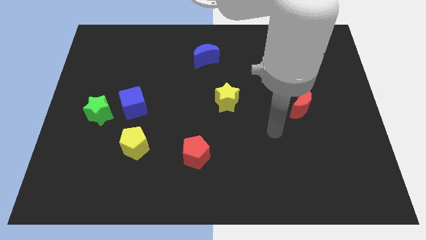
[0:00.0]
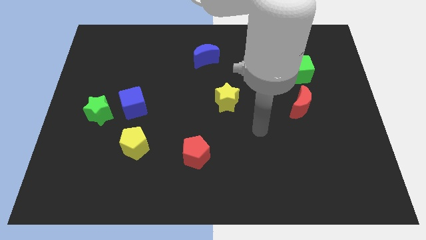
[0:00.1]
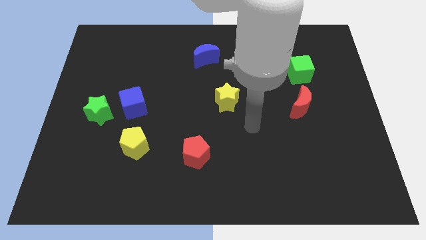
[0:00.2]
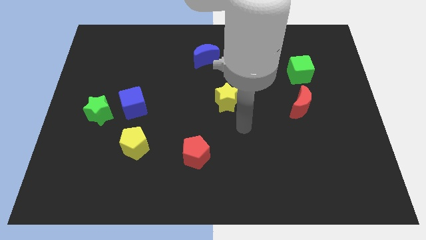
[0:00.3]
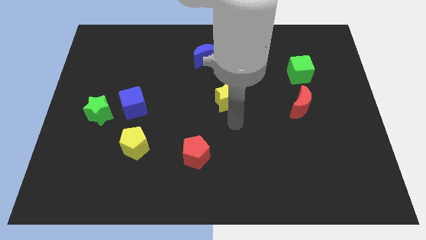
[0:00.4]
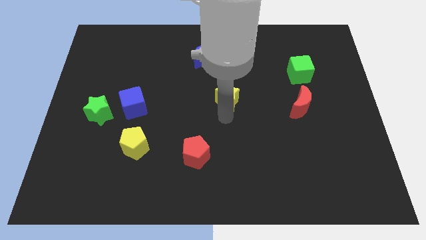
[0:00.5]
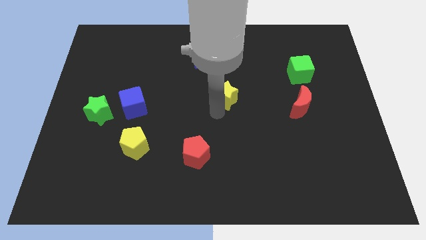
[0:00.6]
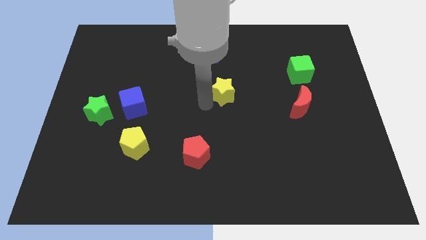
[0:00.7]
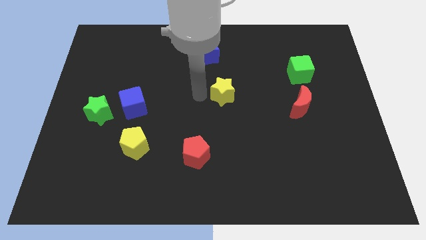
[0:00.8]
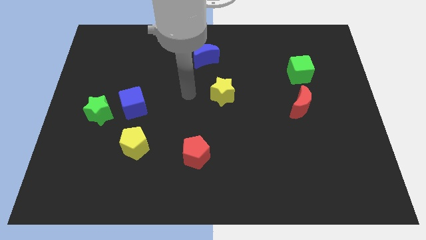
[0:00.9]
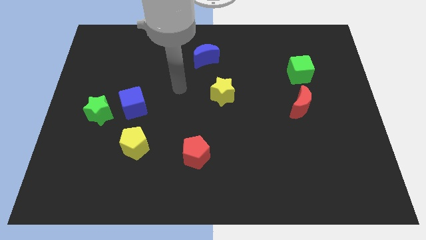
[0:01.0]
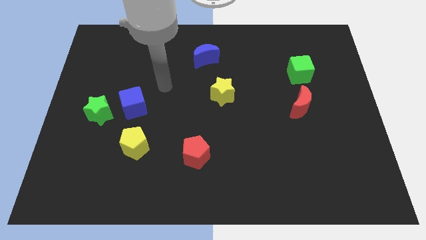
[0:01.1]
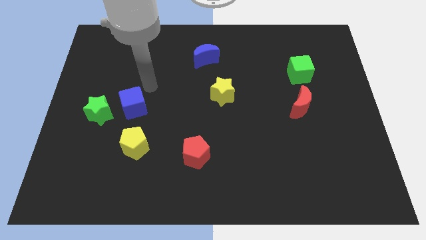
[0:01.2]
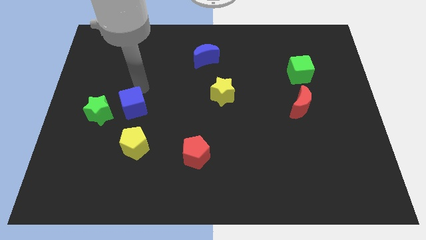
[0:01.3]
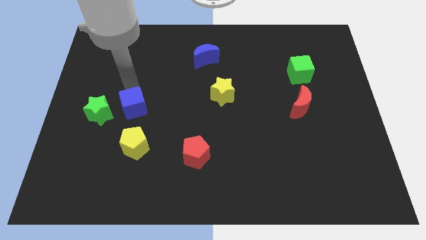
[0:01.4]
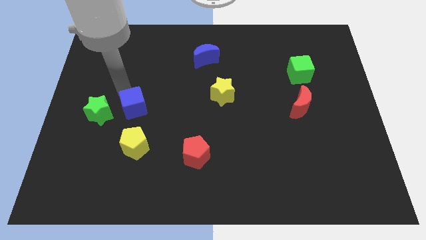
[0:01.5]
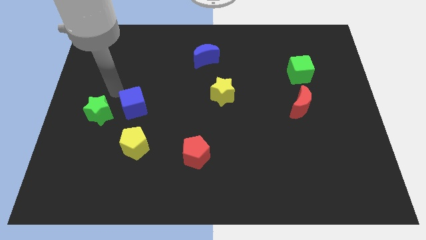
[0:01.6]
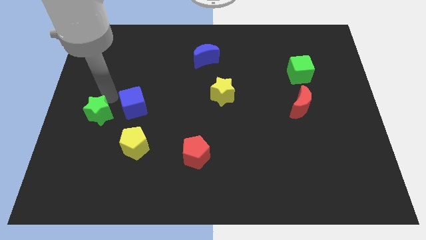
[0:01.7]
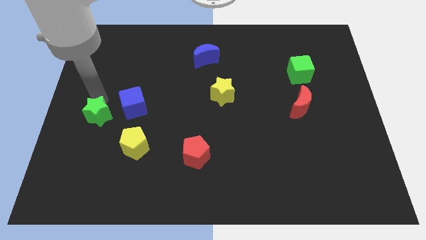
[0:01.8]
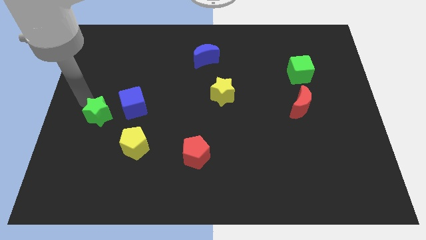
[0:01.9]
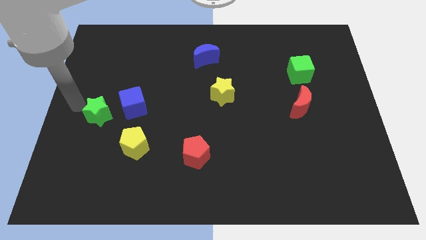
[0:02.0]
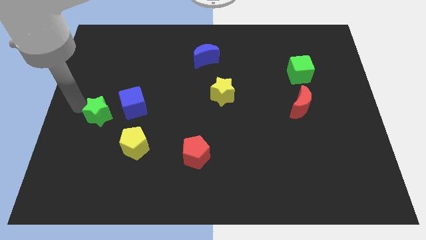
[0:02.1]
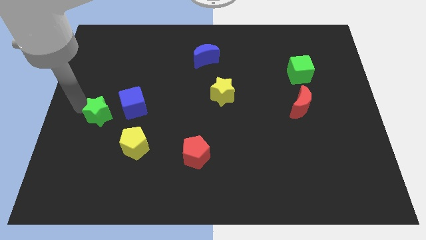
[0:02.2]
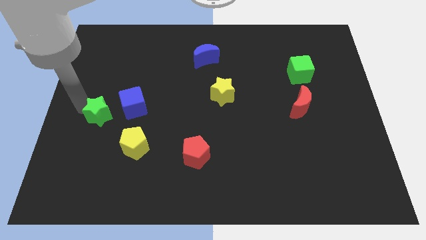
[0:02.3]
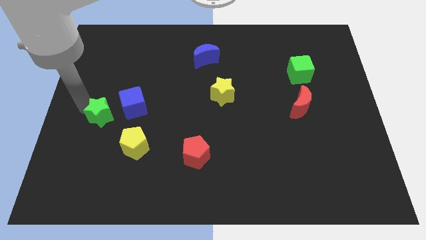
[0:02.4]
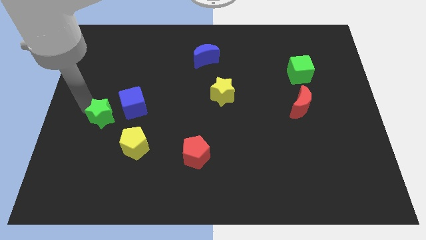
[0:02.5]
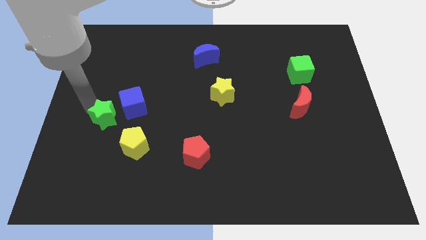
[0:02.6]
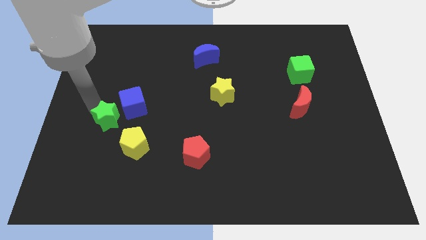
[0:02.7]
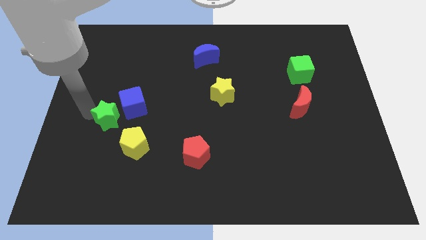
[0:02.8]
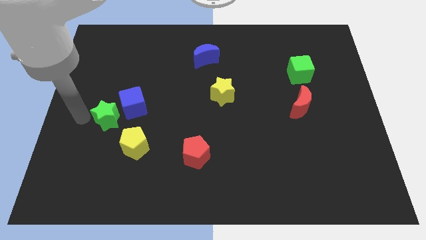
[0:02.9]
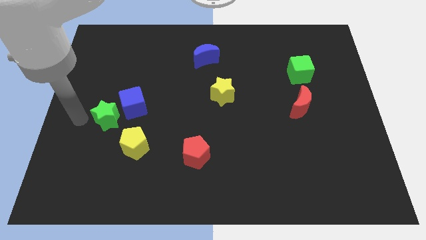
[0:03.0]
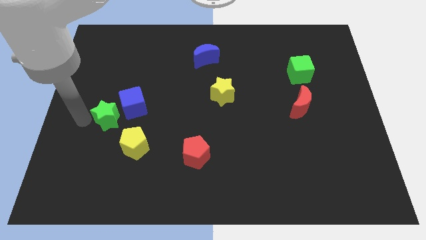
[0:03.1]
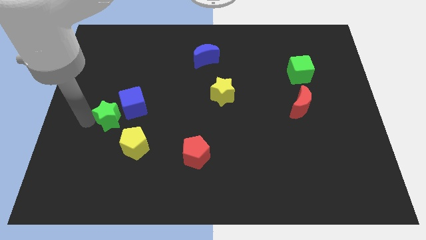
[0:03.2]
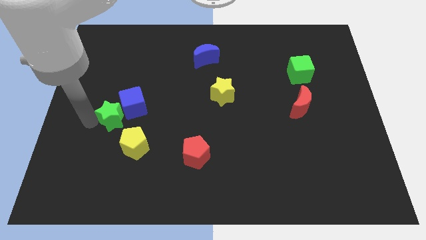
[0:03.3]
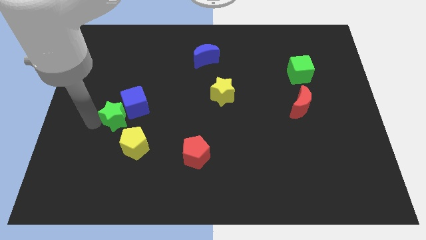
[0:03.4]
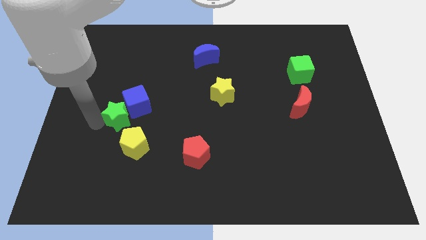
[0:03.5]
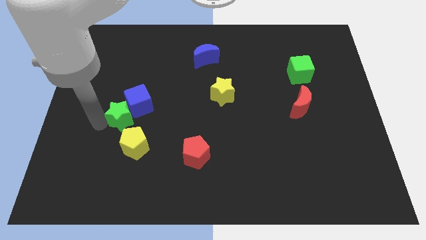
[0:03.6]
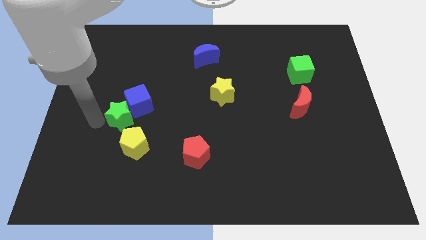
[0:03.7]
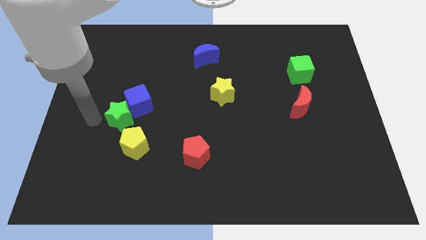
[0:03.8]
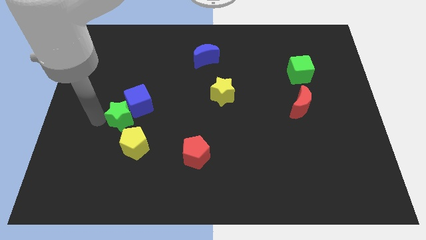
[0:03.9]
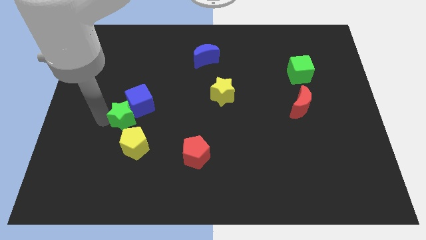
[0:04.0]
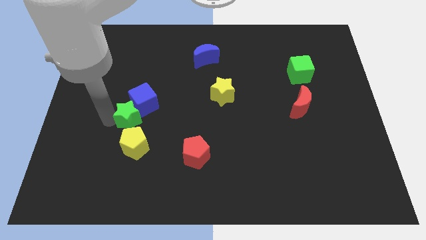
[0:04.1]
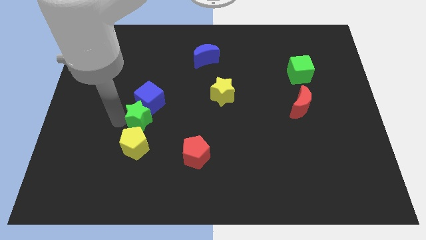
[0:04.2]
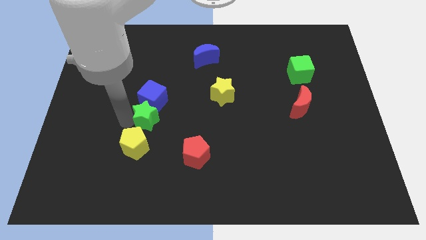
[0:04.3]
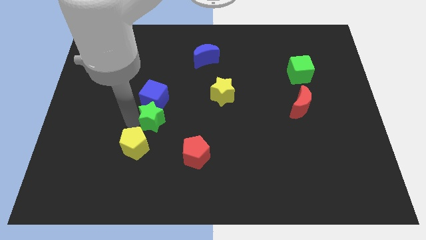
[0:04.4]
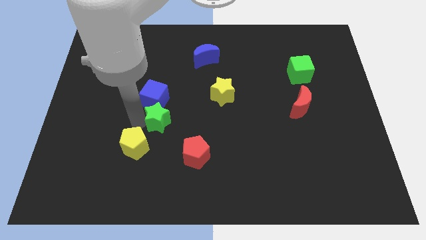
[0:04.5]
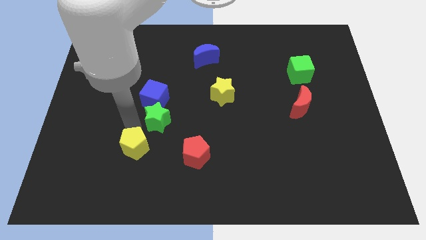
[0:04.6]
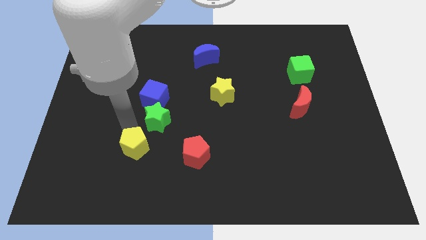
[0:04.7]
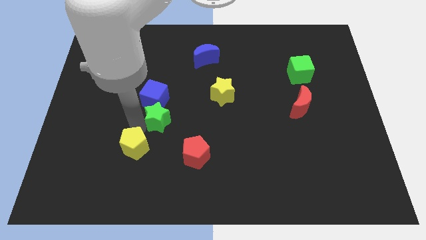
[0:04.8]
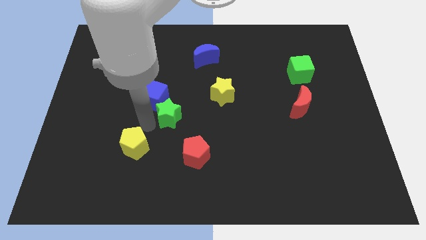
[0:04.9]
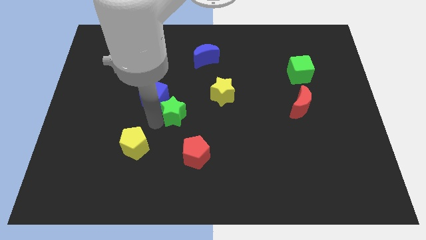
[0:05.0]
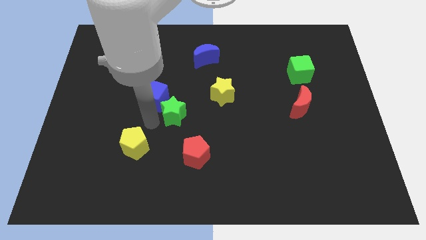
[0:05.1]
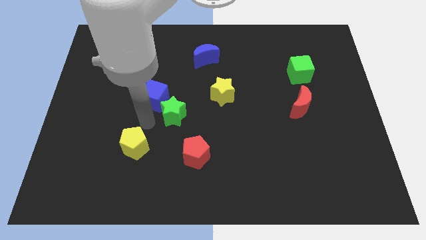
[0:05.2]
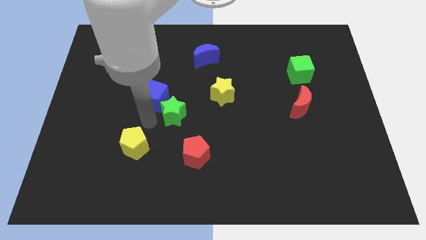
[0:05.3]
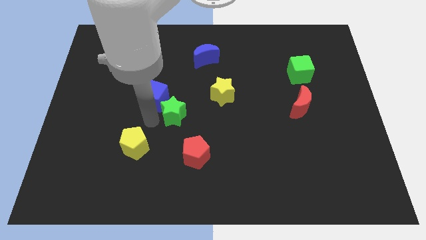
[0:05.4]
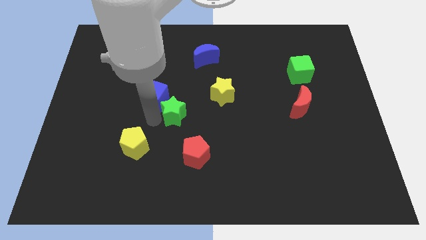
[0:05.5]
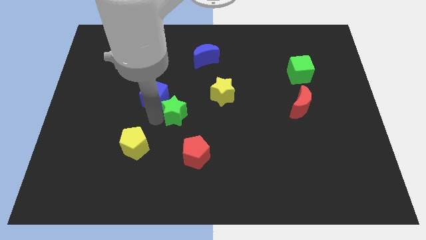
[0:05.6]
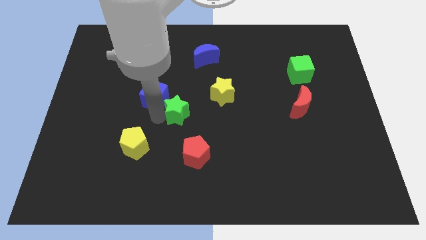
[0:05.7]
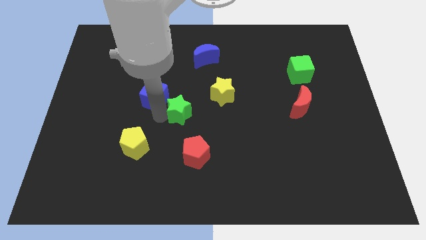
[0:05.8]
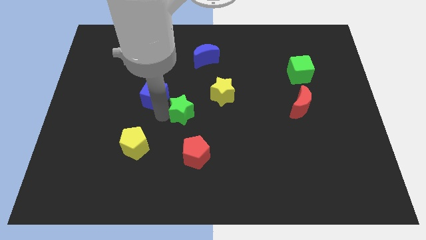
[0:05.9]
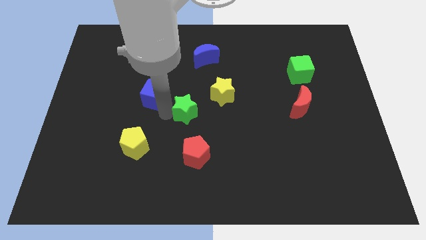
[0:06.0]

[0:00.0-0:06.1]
slide the green star to the right

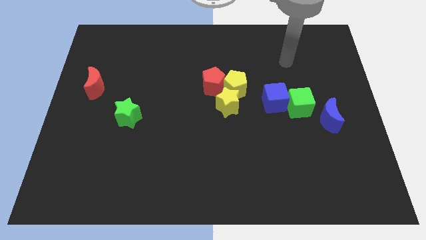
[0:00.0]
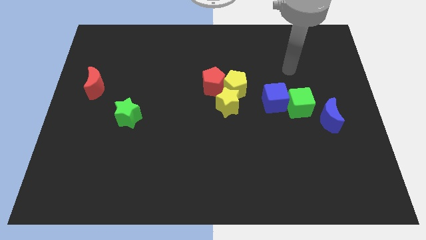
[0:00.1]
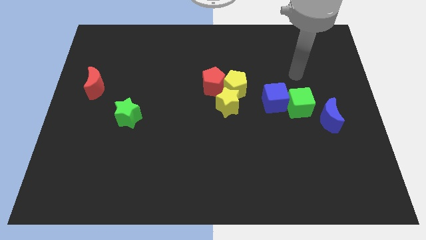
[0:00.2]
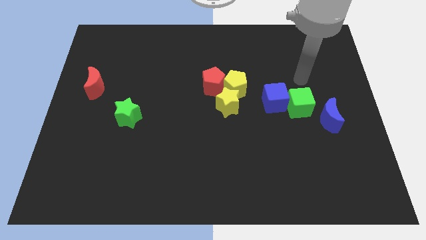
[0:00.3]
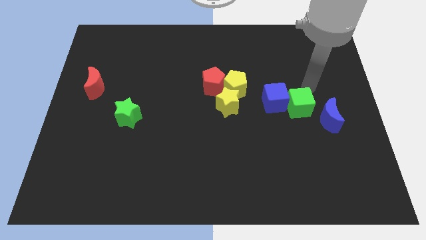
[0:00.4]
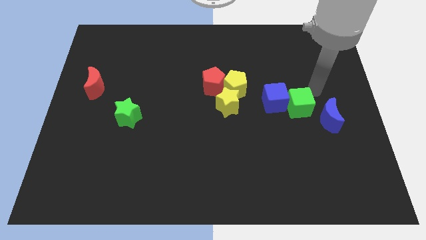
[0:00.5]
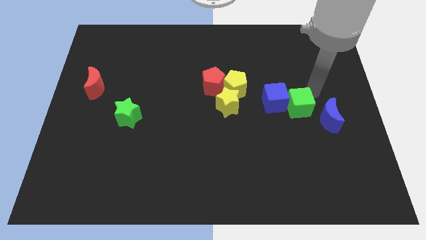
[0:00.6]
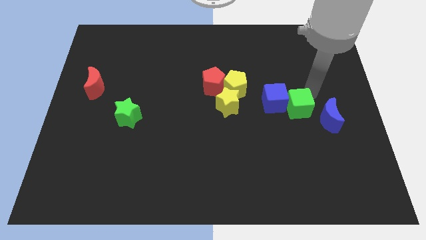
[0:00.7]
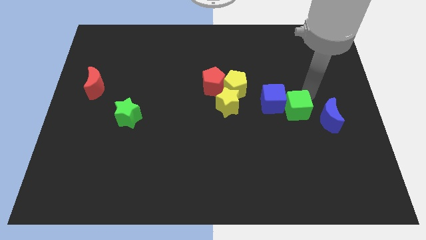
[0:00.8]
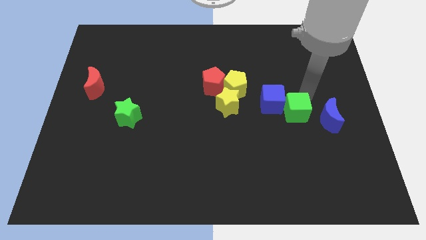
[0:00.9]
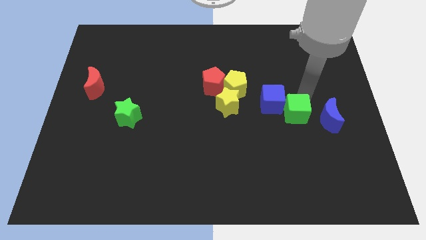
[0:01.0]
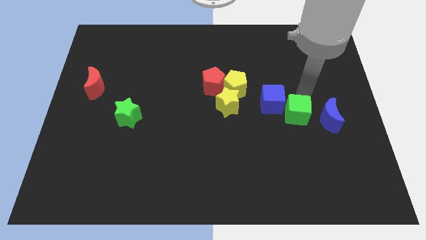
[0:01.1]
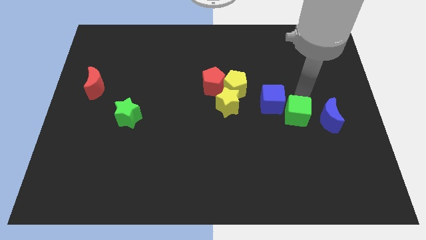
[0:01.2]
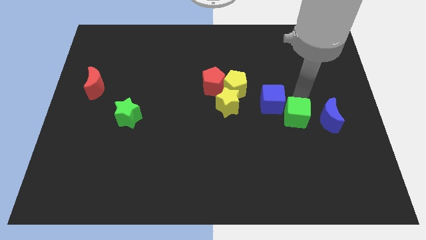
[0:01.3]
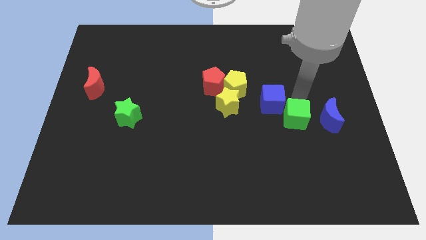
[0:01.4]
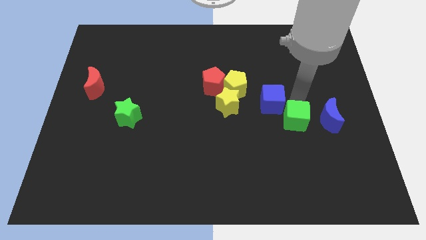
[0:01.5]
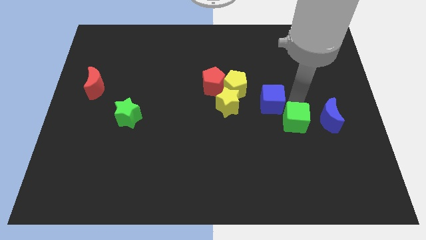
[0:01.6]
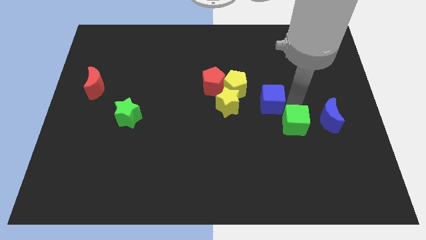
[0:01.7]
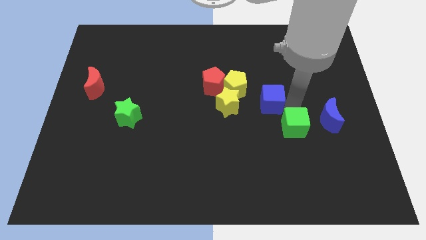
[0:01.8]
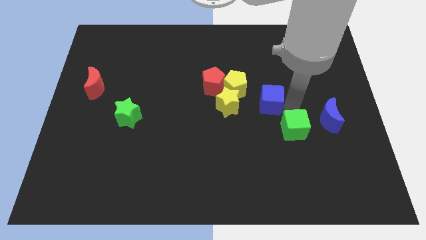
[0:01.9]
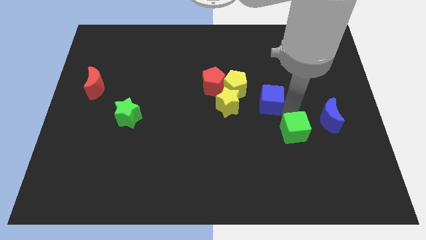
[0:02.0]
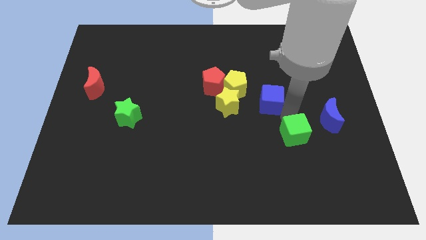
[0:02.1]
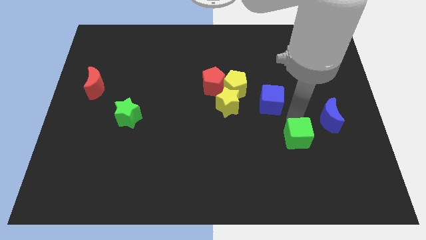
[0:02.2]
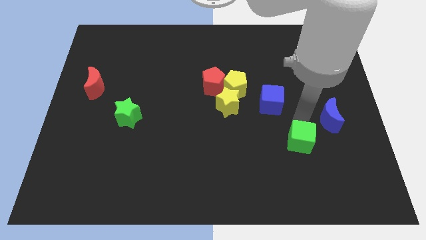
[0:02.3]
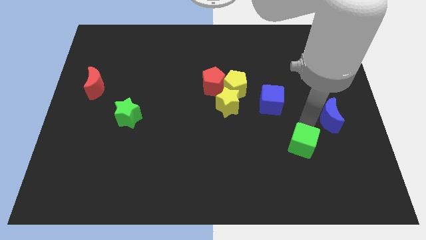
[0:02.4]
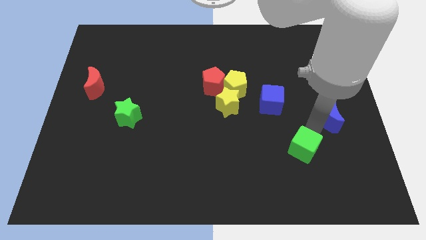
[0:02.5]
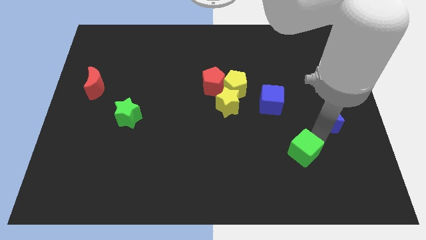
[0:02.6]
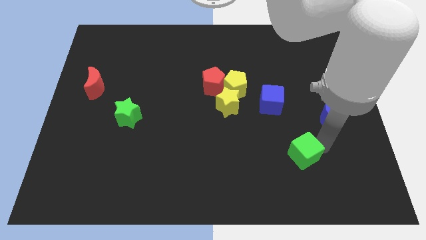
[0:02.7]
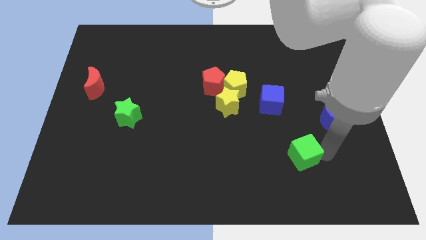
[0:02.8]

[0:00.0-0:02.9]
slide the green cube somewhat diagonally downwards and left
